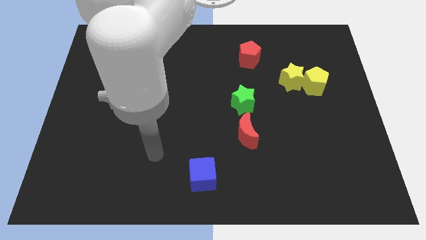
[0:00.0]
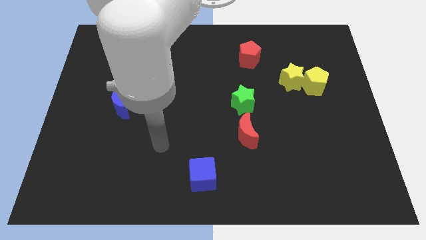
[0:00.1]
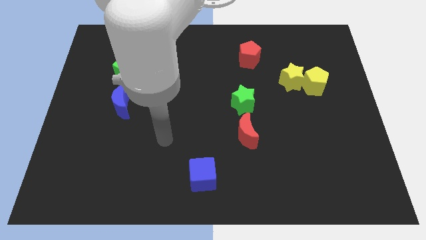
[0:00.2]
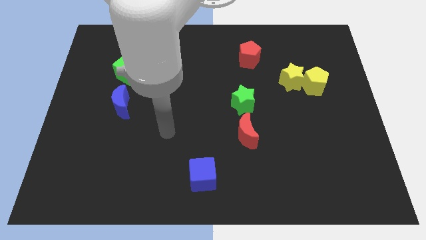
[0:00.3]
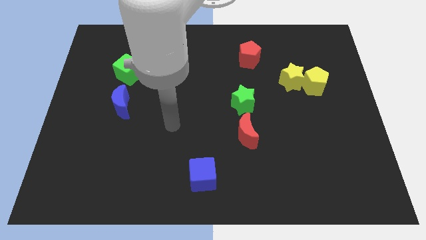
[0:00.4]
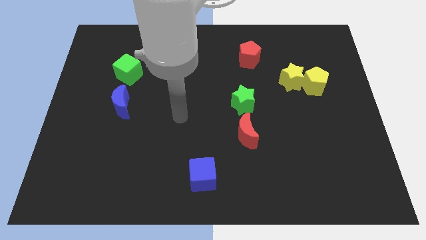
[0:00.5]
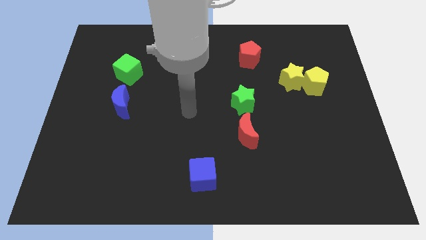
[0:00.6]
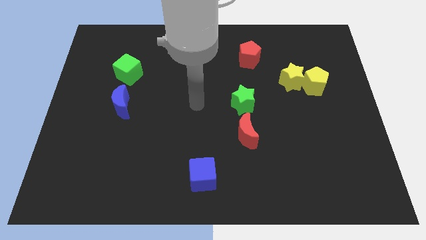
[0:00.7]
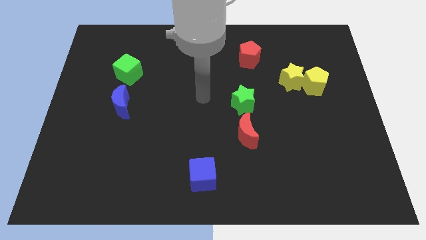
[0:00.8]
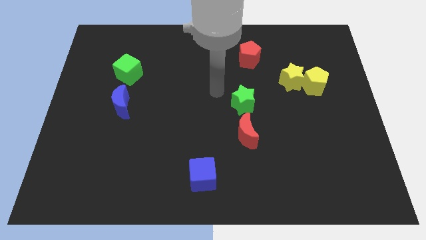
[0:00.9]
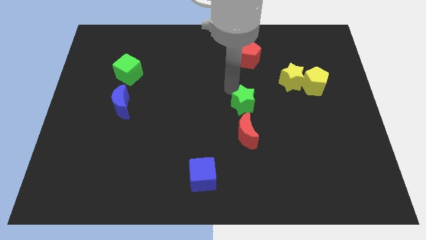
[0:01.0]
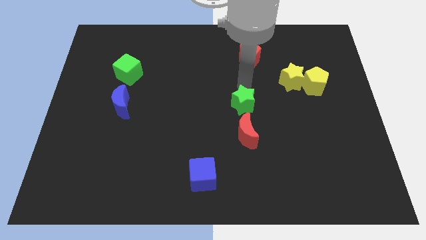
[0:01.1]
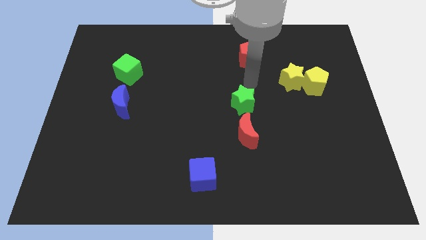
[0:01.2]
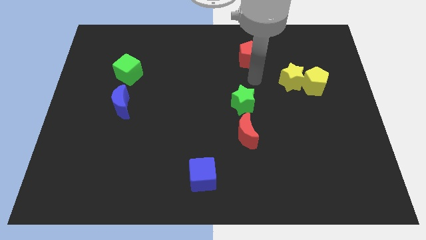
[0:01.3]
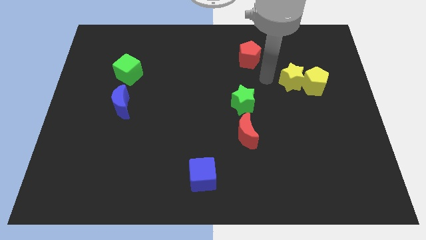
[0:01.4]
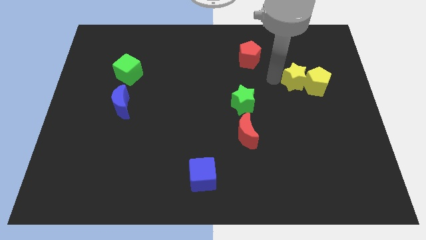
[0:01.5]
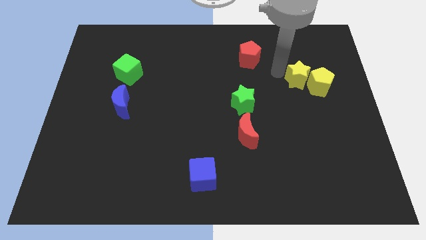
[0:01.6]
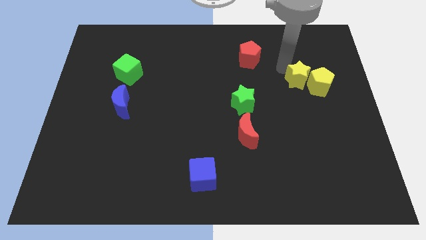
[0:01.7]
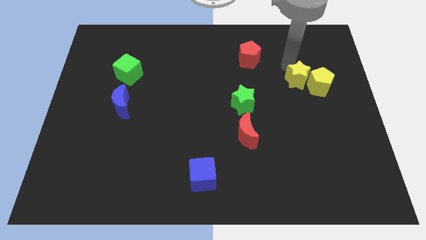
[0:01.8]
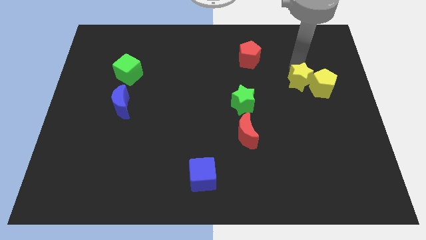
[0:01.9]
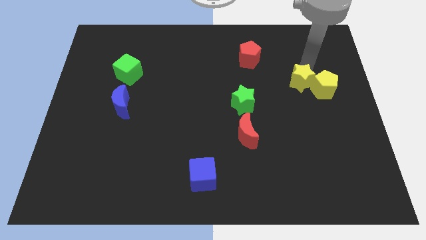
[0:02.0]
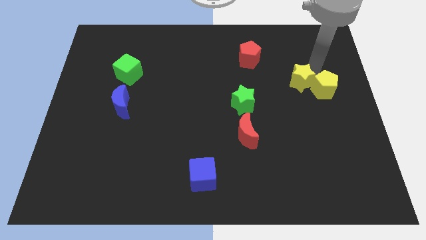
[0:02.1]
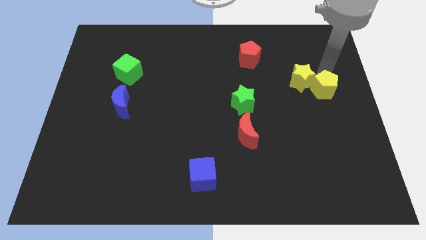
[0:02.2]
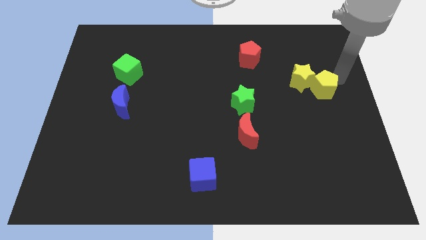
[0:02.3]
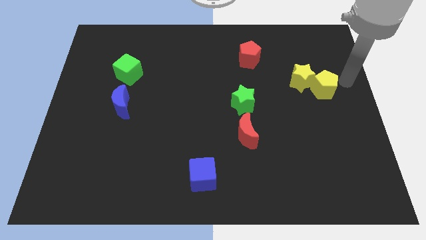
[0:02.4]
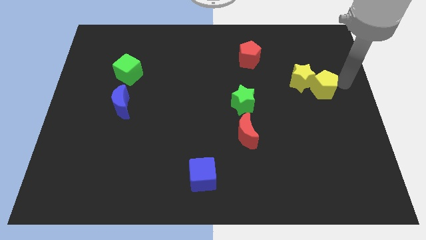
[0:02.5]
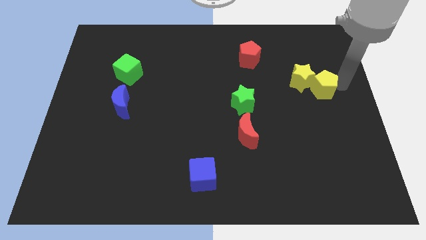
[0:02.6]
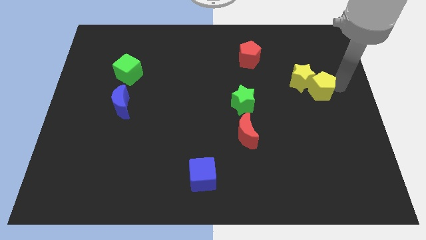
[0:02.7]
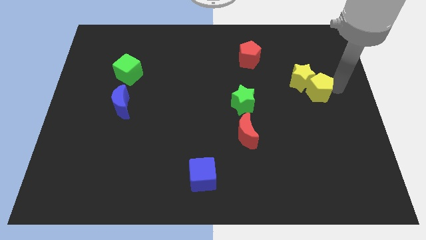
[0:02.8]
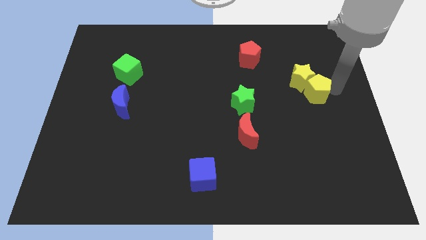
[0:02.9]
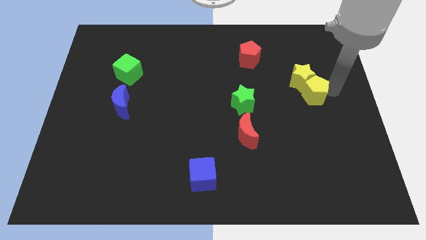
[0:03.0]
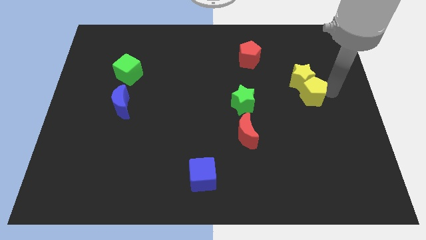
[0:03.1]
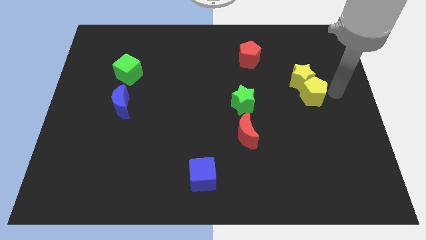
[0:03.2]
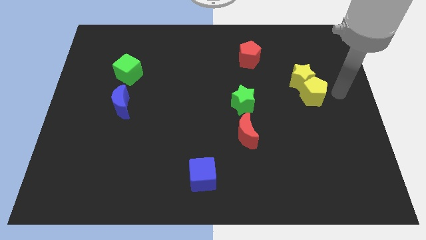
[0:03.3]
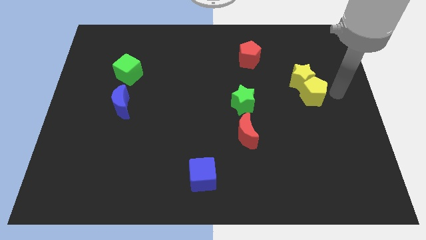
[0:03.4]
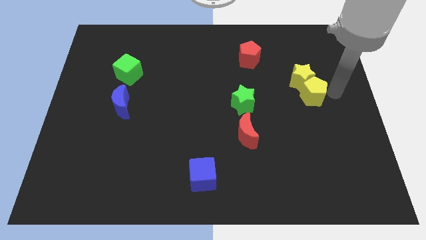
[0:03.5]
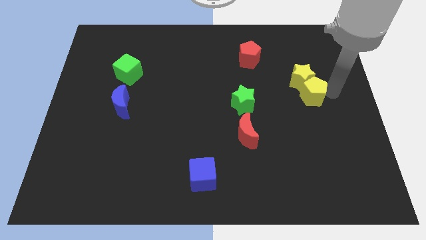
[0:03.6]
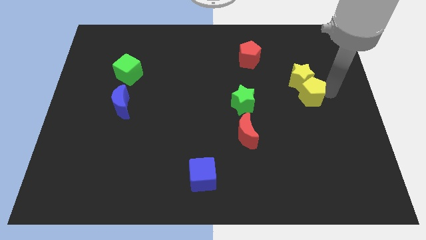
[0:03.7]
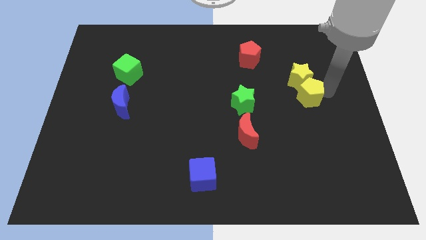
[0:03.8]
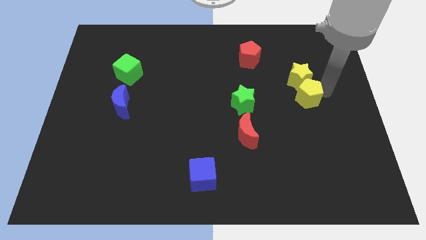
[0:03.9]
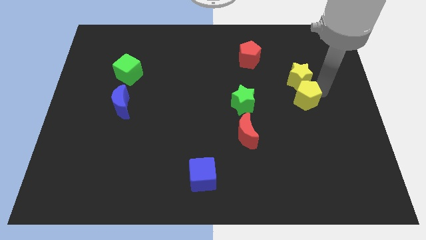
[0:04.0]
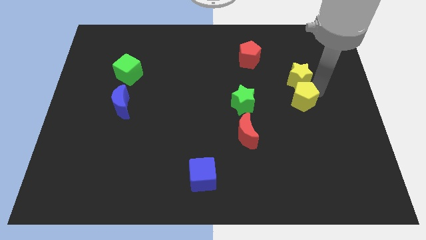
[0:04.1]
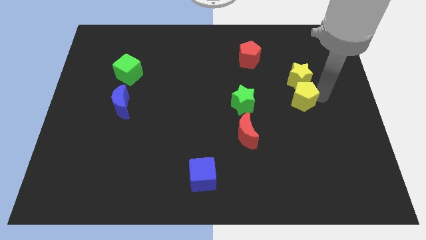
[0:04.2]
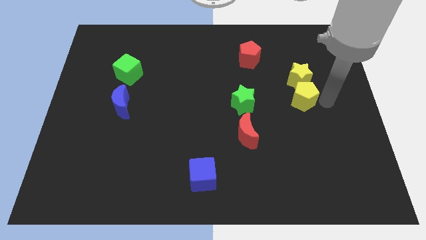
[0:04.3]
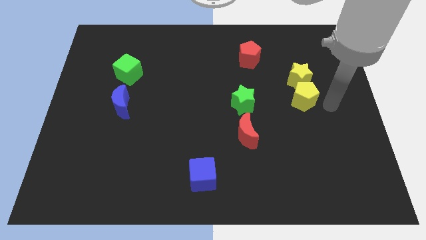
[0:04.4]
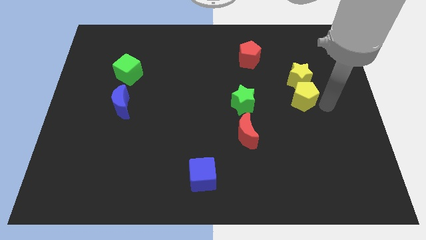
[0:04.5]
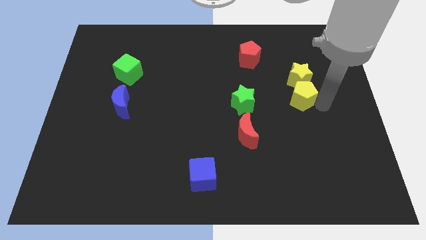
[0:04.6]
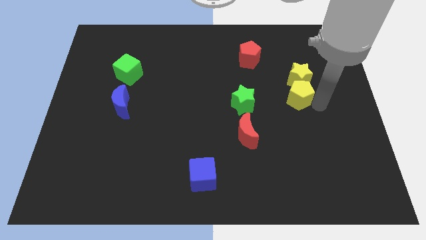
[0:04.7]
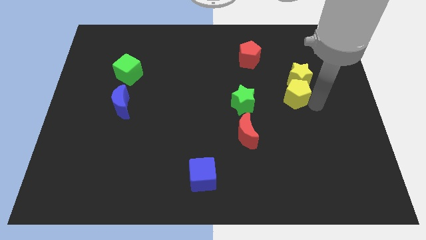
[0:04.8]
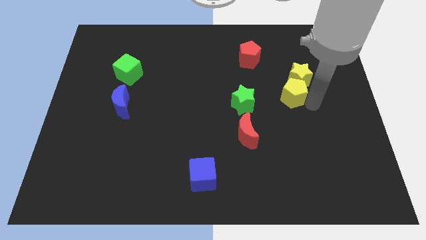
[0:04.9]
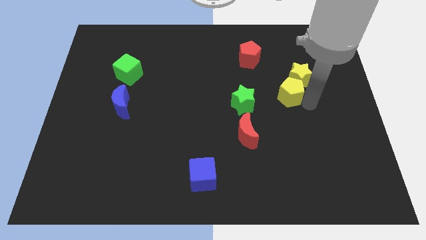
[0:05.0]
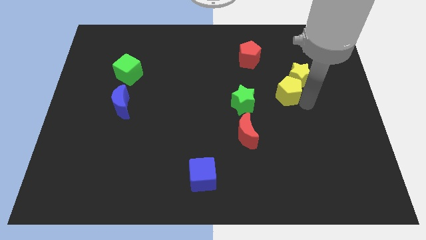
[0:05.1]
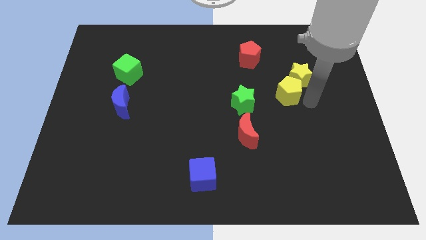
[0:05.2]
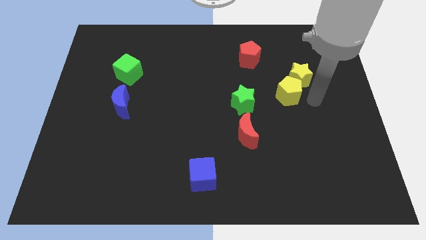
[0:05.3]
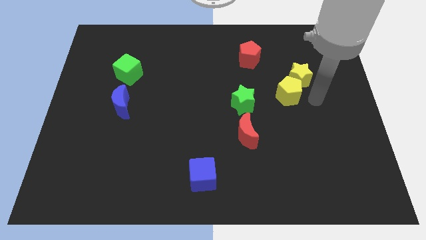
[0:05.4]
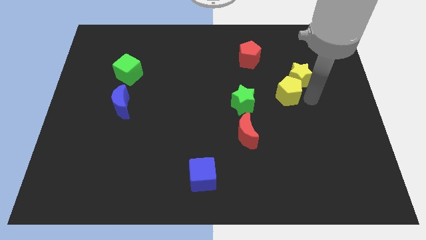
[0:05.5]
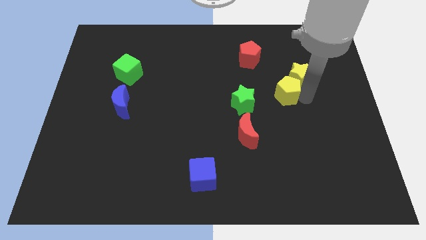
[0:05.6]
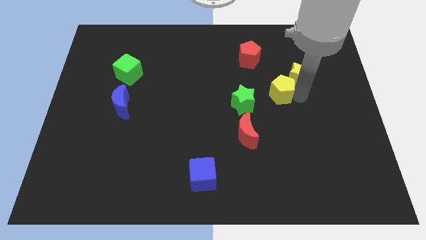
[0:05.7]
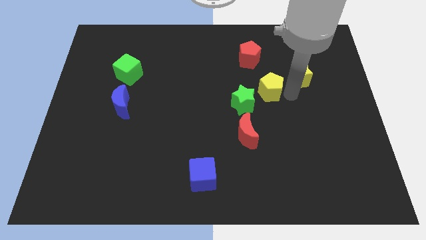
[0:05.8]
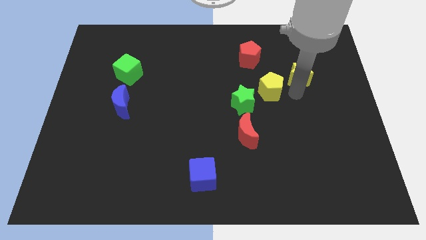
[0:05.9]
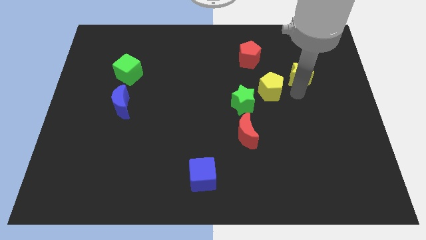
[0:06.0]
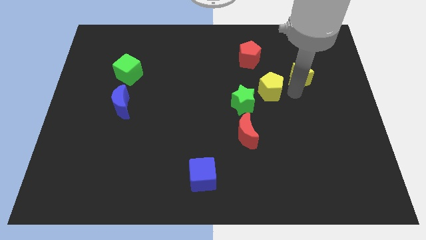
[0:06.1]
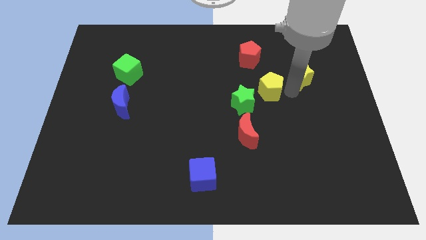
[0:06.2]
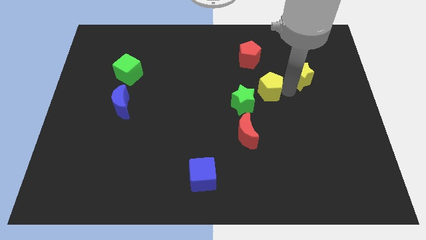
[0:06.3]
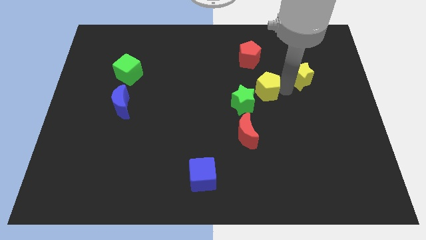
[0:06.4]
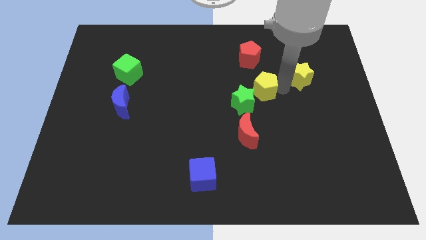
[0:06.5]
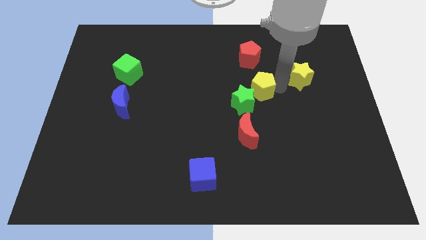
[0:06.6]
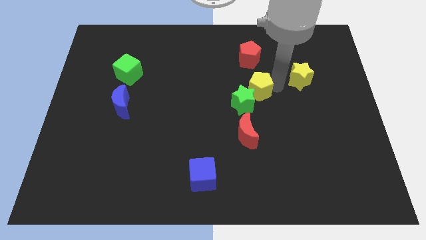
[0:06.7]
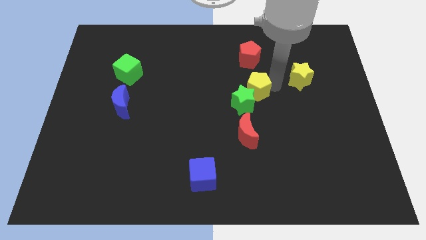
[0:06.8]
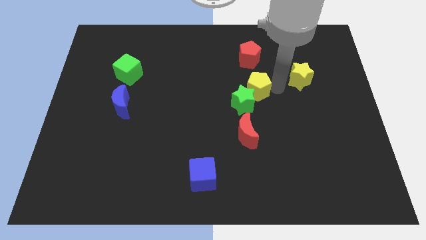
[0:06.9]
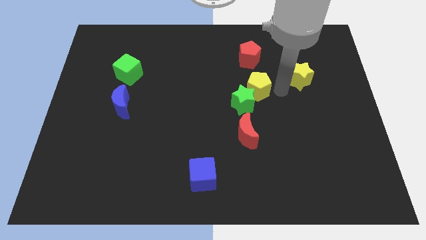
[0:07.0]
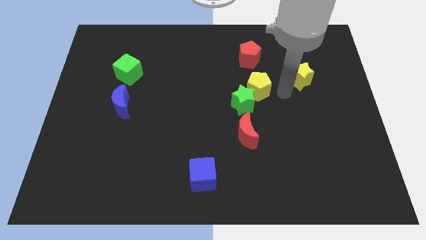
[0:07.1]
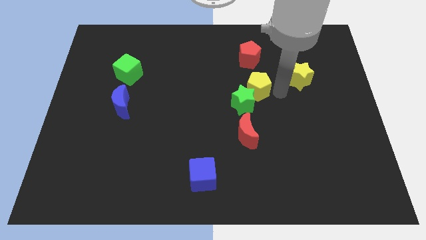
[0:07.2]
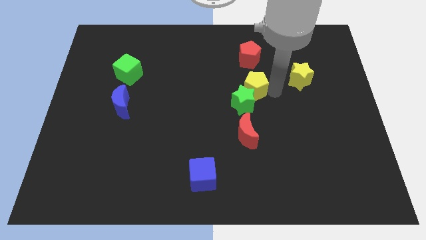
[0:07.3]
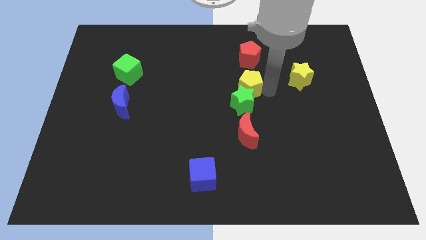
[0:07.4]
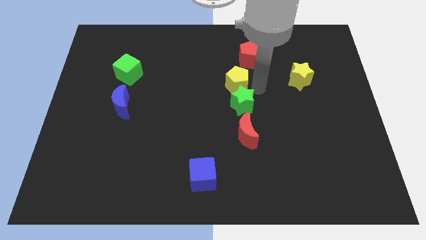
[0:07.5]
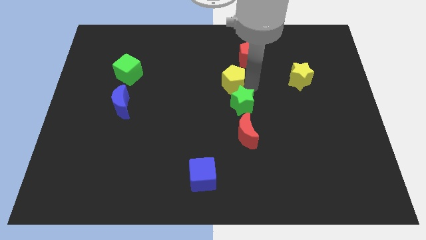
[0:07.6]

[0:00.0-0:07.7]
move the yellow pentagon to the left

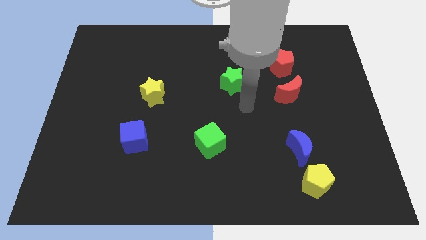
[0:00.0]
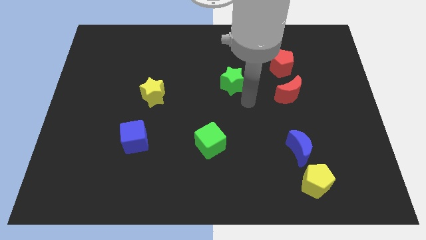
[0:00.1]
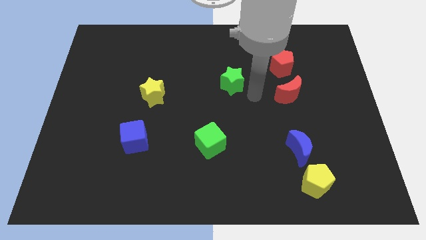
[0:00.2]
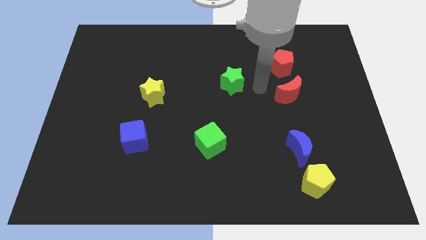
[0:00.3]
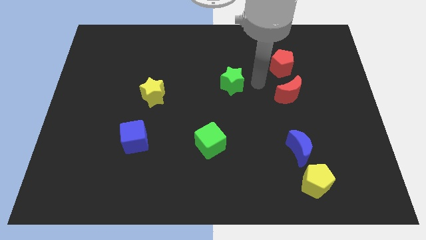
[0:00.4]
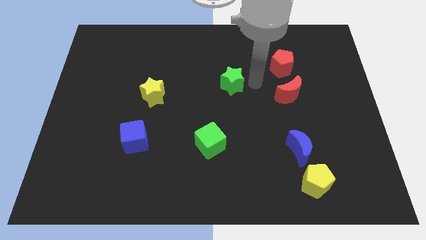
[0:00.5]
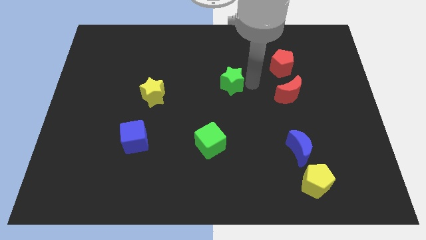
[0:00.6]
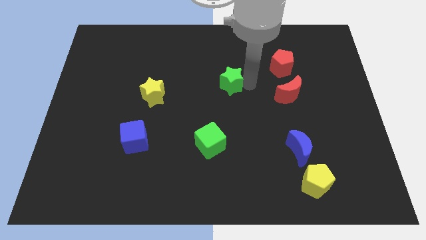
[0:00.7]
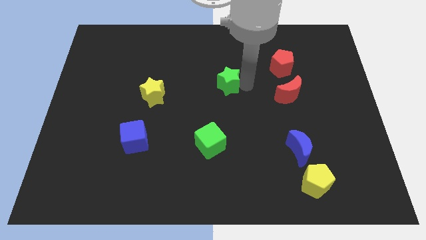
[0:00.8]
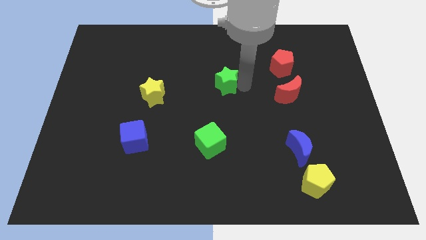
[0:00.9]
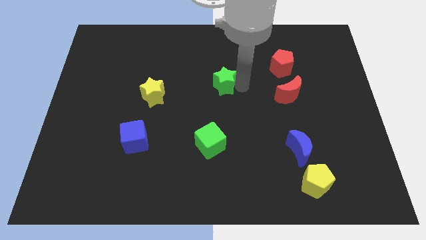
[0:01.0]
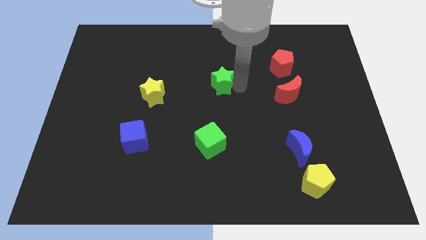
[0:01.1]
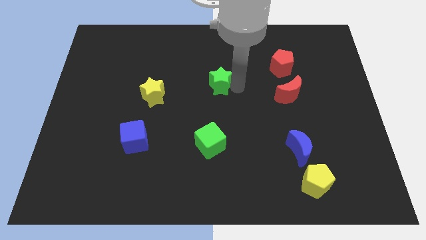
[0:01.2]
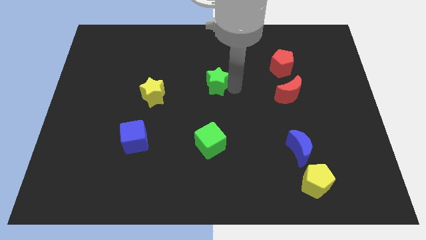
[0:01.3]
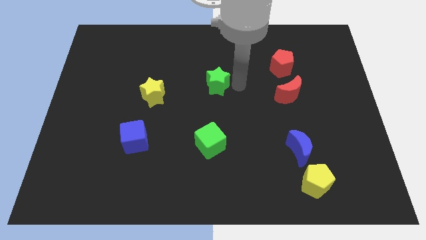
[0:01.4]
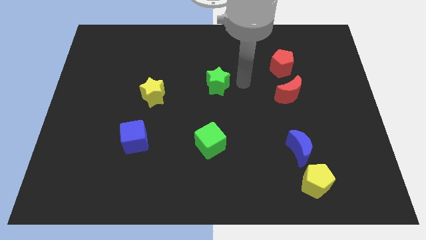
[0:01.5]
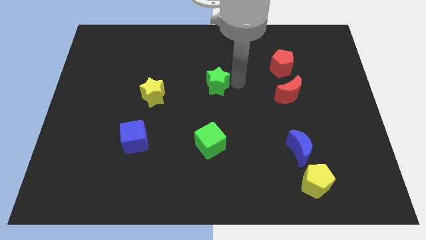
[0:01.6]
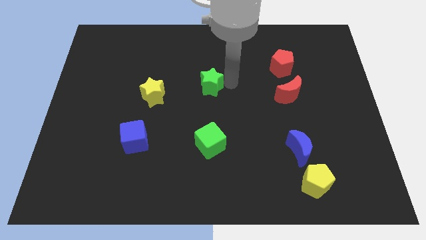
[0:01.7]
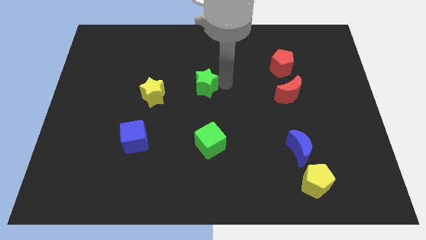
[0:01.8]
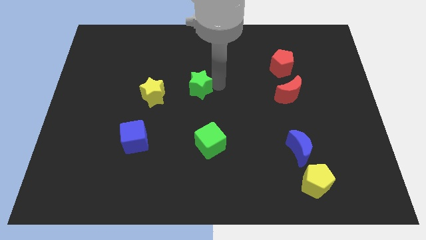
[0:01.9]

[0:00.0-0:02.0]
slide the green star a bit left
